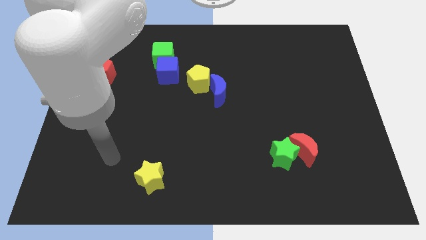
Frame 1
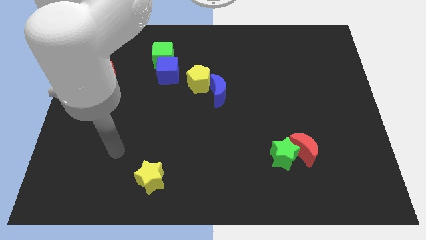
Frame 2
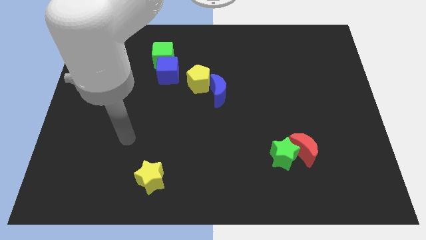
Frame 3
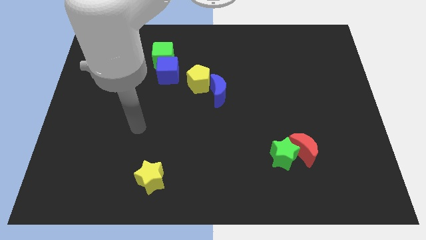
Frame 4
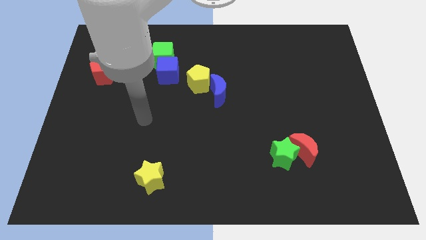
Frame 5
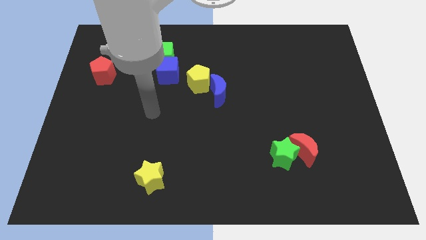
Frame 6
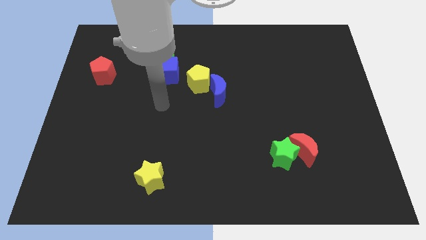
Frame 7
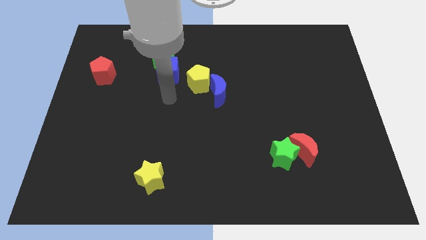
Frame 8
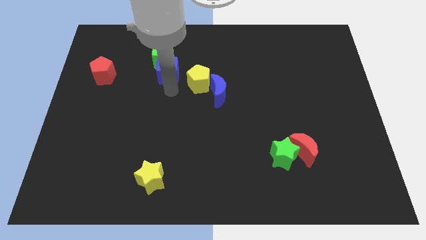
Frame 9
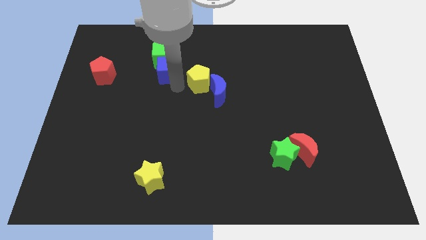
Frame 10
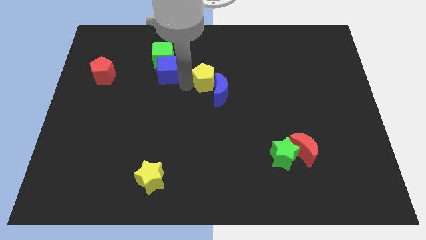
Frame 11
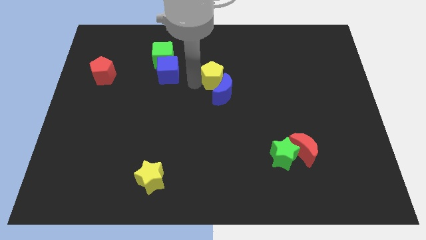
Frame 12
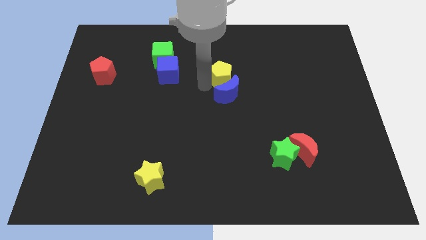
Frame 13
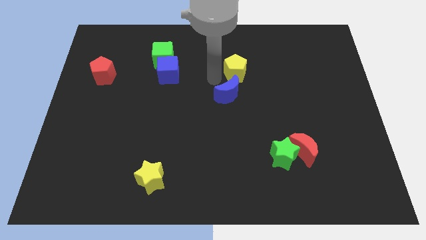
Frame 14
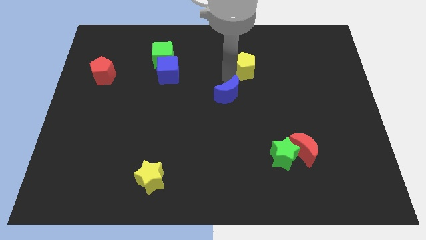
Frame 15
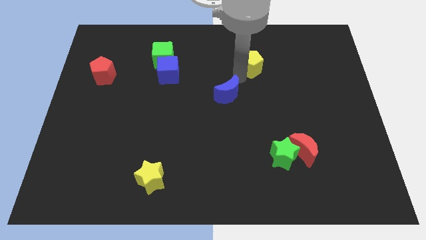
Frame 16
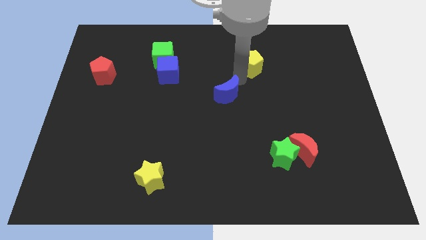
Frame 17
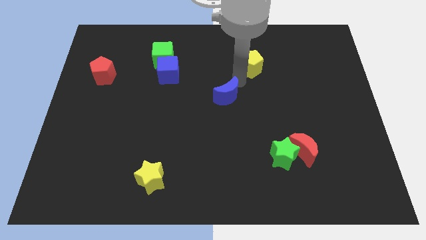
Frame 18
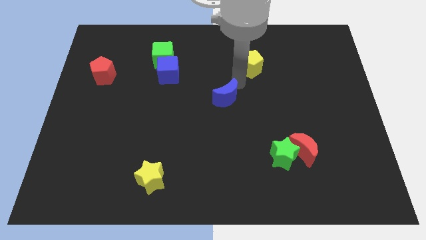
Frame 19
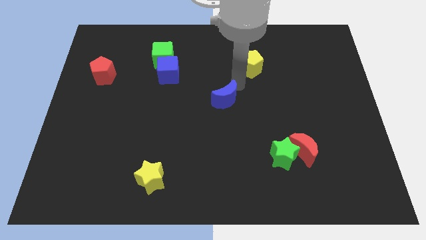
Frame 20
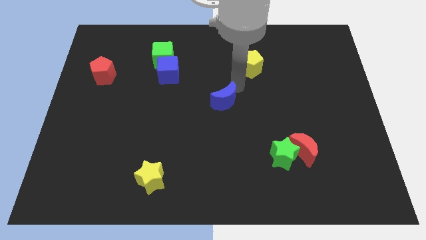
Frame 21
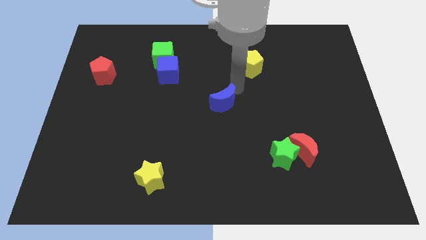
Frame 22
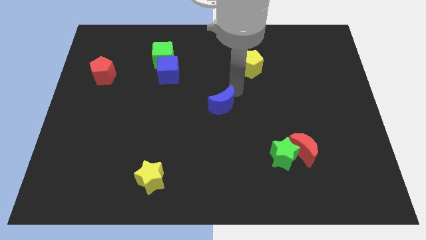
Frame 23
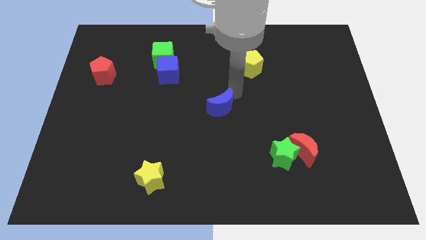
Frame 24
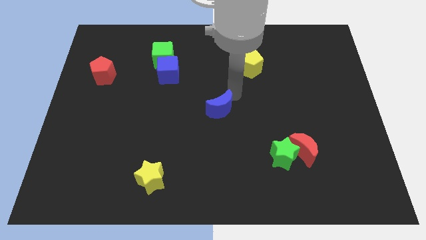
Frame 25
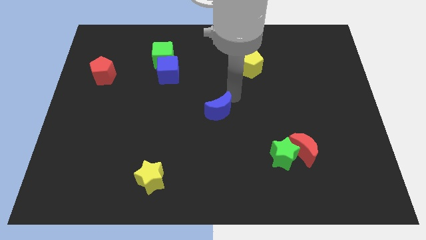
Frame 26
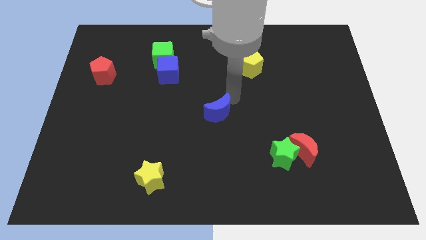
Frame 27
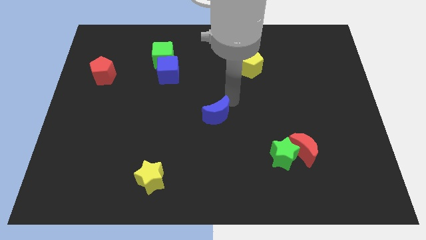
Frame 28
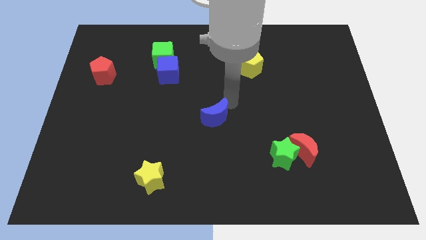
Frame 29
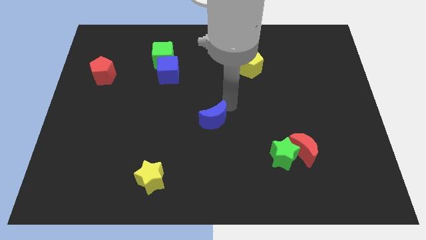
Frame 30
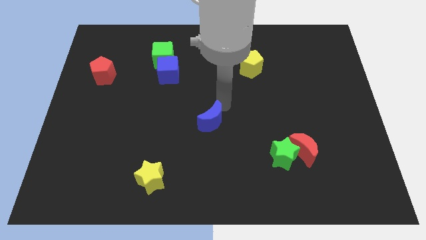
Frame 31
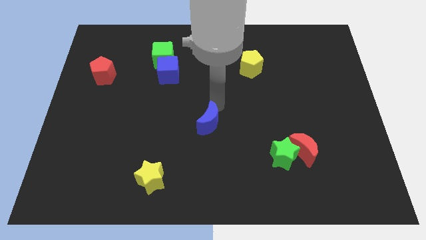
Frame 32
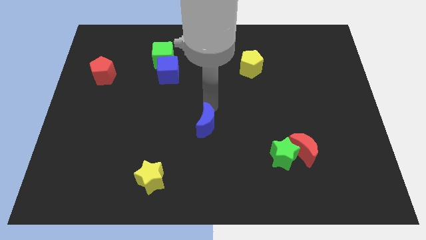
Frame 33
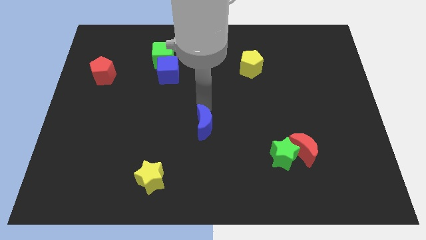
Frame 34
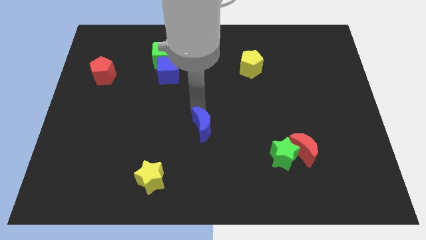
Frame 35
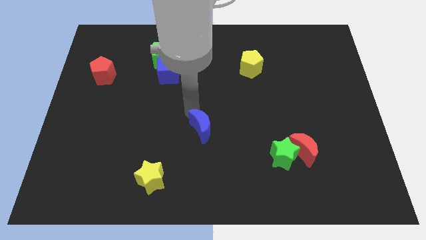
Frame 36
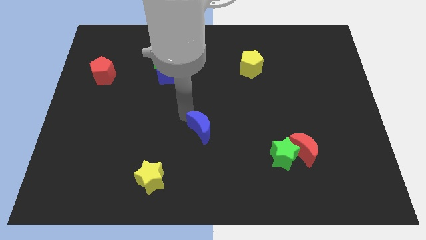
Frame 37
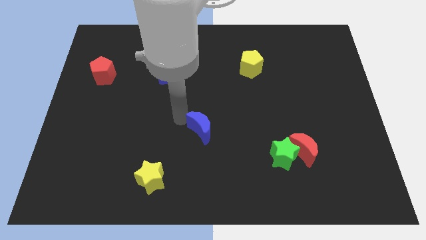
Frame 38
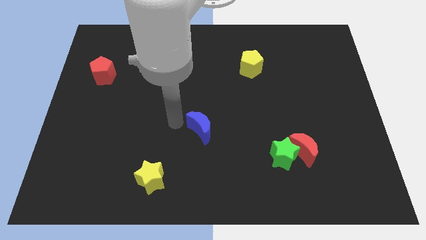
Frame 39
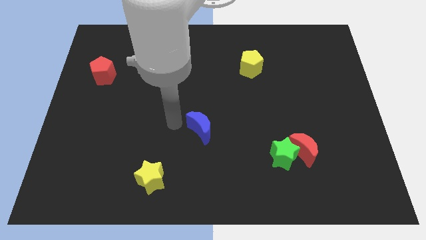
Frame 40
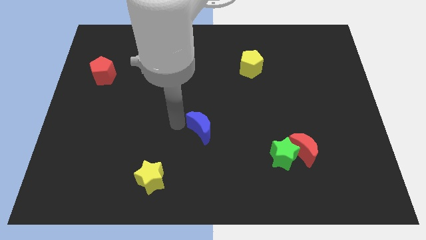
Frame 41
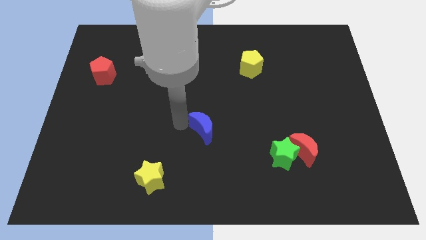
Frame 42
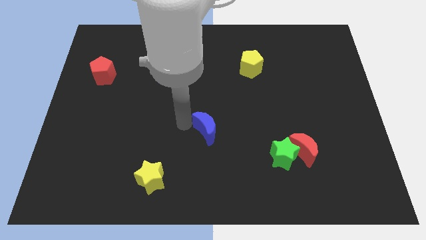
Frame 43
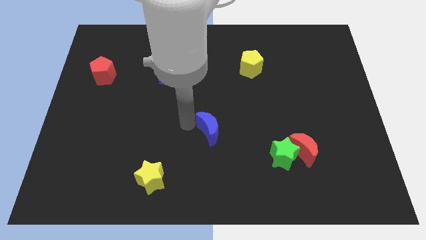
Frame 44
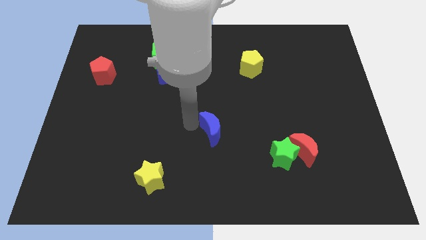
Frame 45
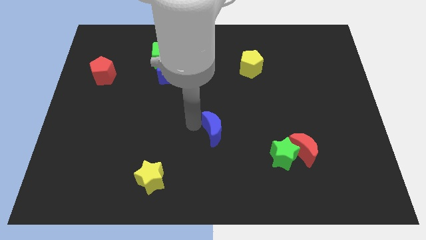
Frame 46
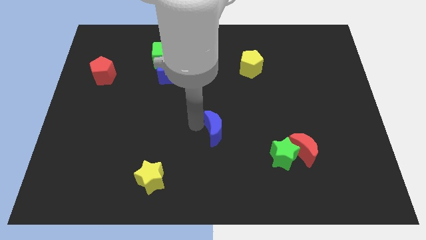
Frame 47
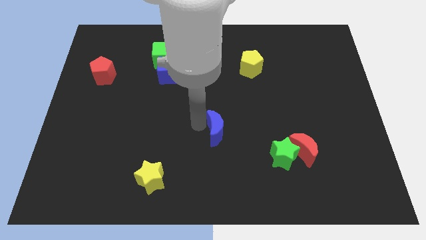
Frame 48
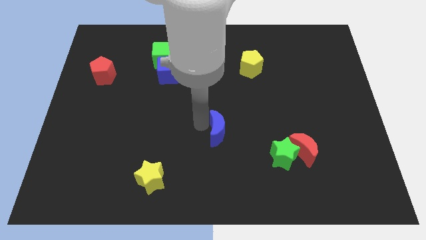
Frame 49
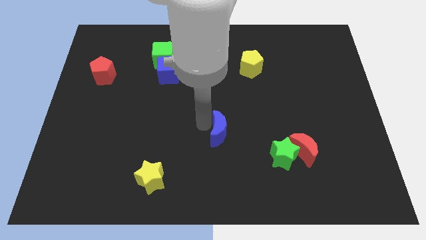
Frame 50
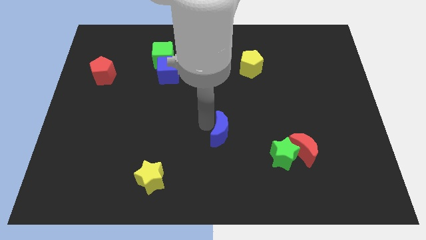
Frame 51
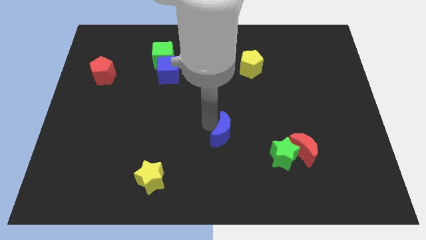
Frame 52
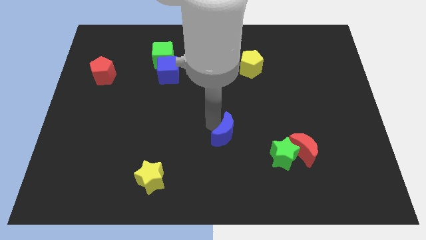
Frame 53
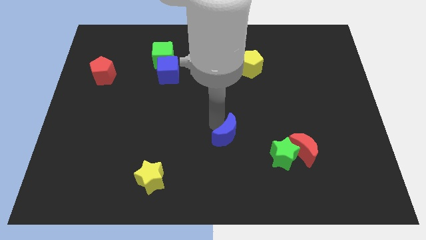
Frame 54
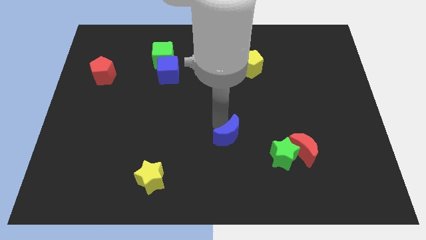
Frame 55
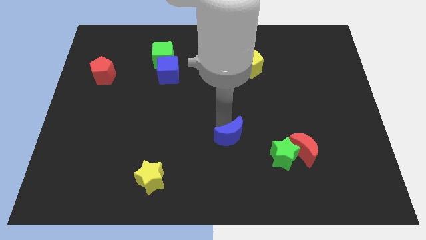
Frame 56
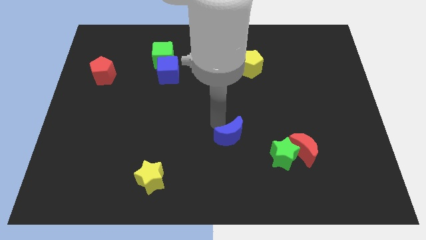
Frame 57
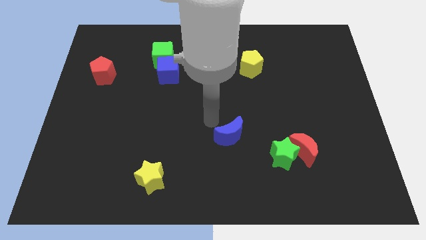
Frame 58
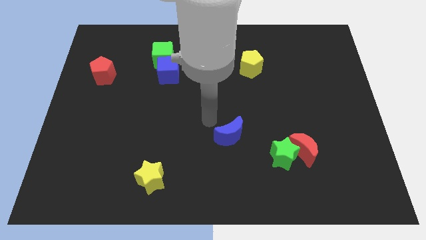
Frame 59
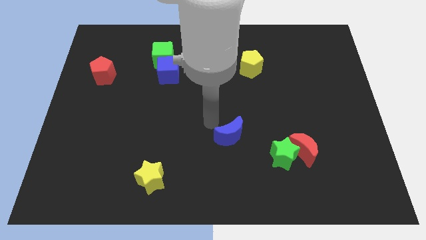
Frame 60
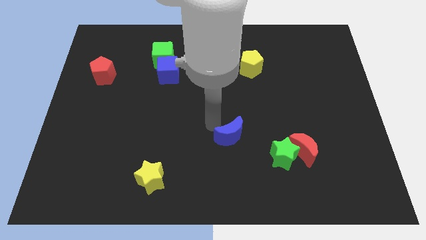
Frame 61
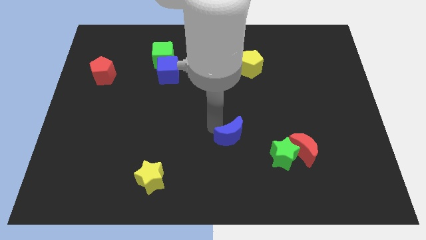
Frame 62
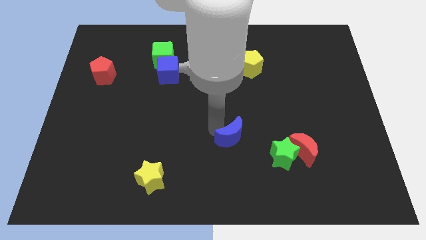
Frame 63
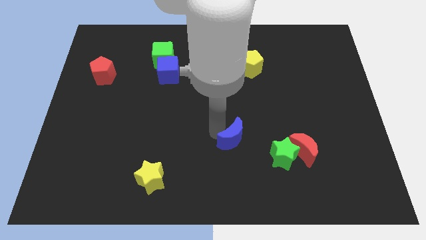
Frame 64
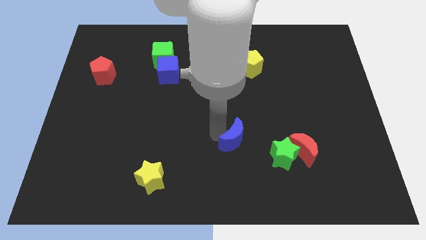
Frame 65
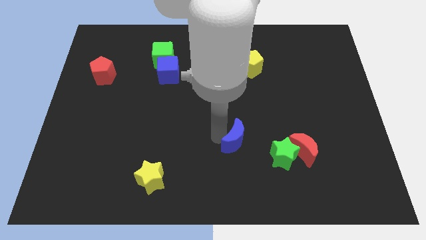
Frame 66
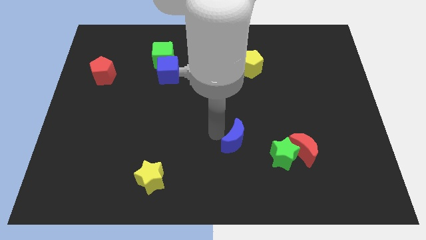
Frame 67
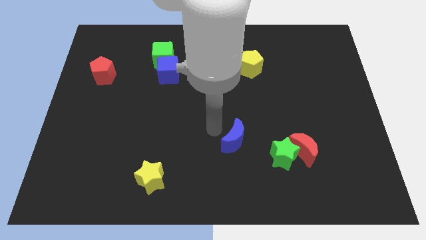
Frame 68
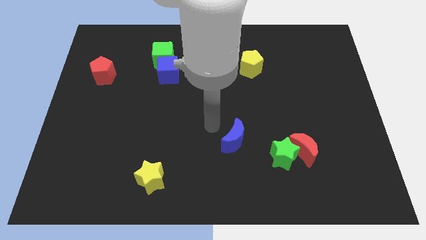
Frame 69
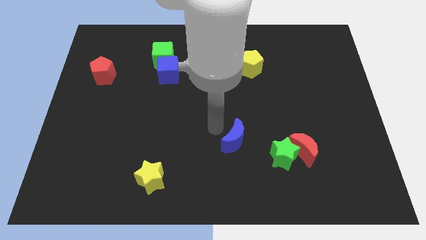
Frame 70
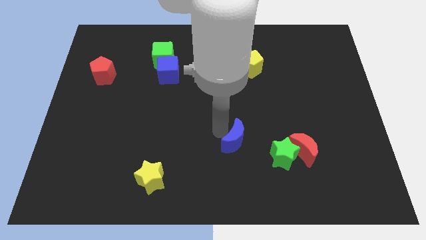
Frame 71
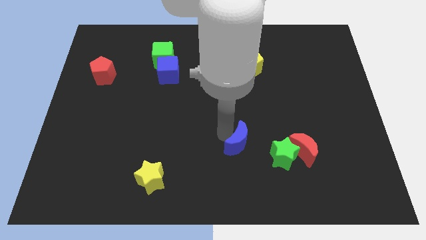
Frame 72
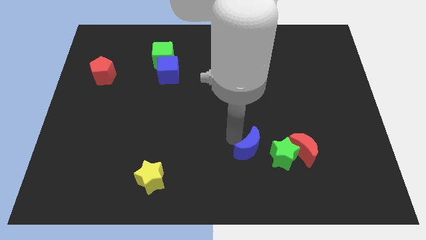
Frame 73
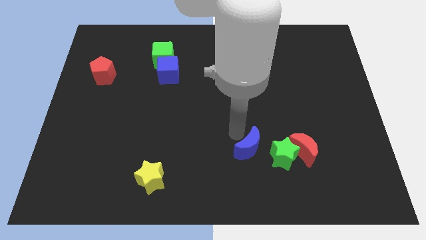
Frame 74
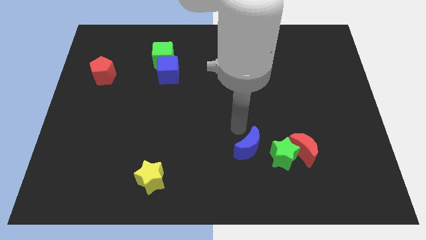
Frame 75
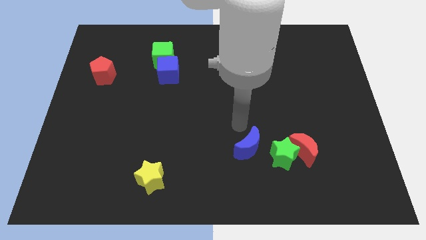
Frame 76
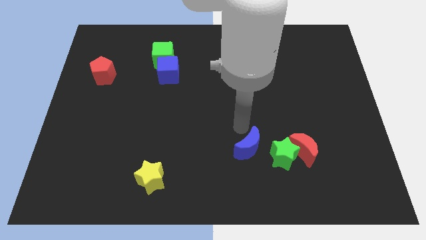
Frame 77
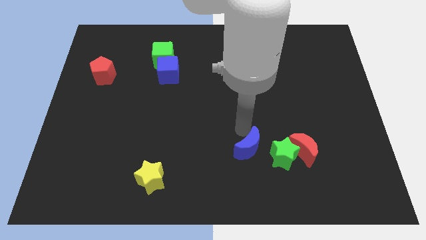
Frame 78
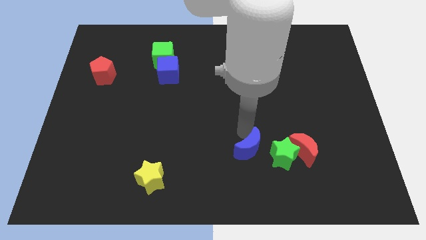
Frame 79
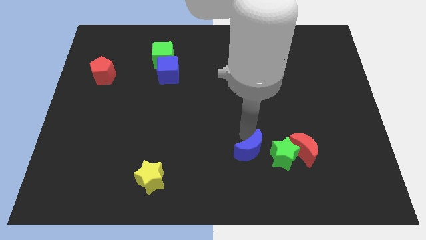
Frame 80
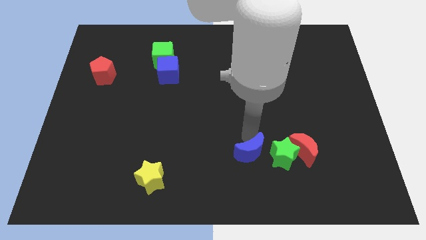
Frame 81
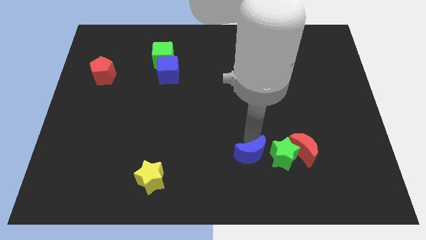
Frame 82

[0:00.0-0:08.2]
push the blue moon diagonally down and to the left of the green star
